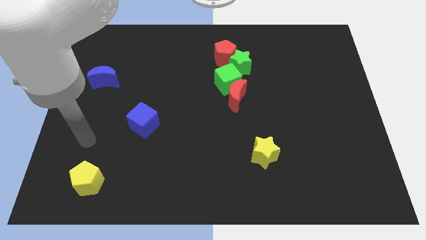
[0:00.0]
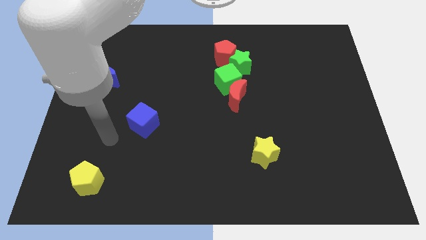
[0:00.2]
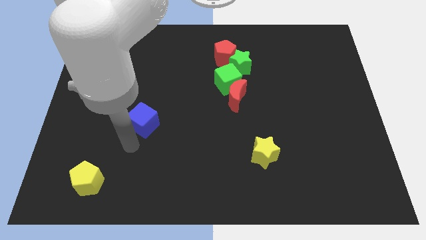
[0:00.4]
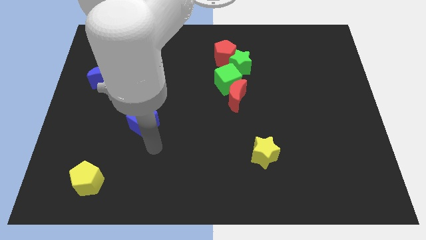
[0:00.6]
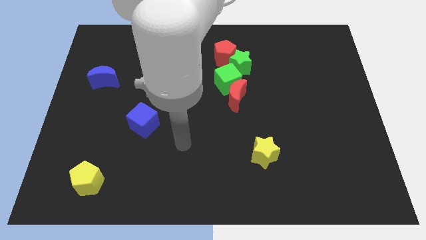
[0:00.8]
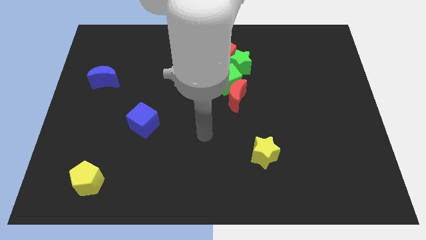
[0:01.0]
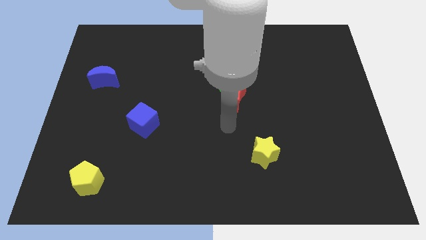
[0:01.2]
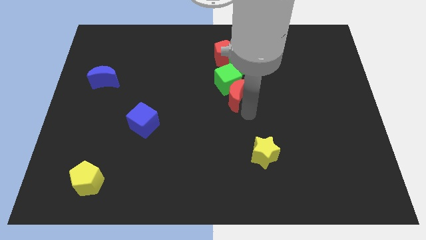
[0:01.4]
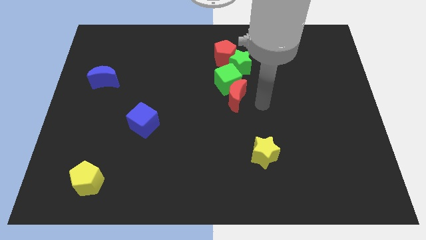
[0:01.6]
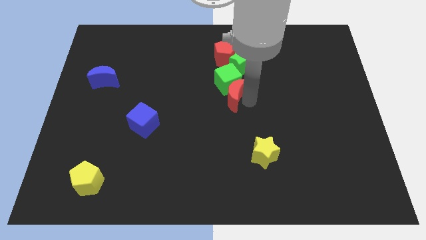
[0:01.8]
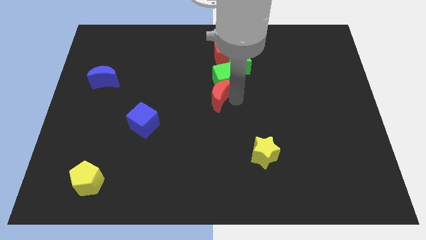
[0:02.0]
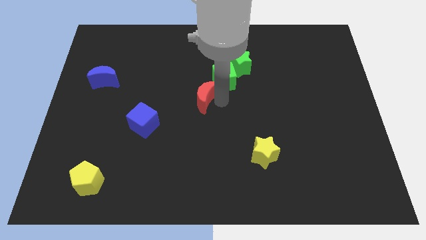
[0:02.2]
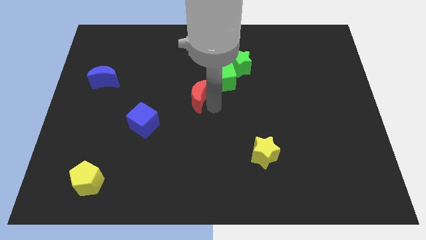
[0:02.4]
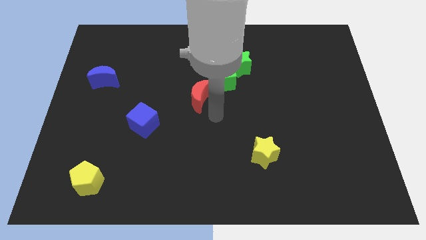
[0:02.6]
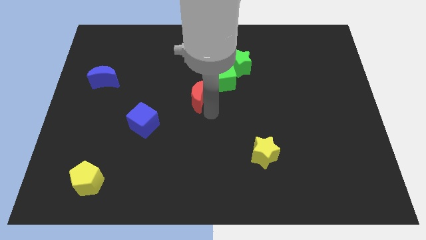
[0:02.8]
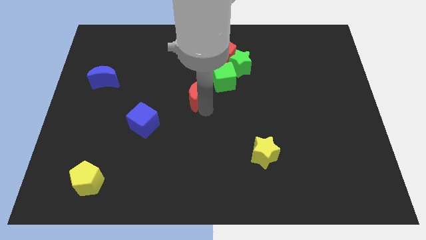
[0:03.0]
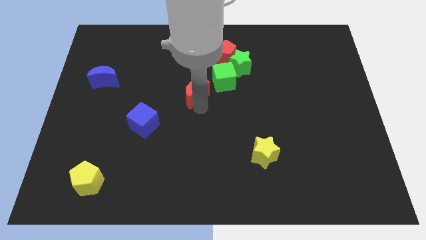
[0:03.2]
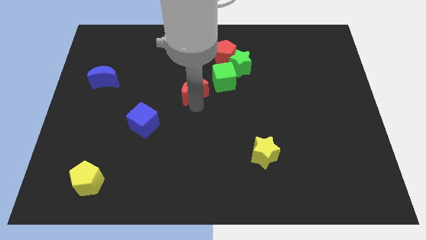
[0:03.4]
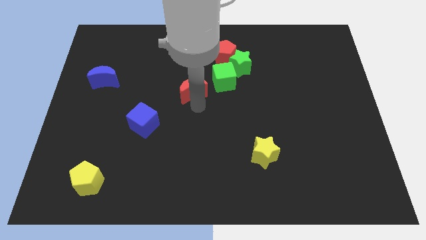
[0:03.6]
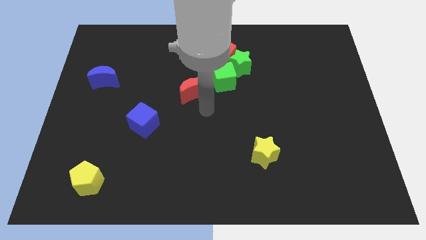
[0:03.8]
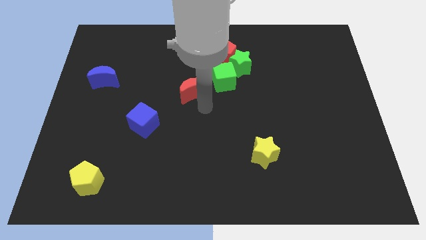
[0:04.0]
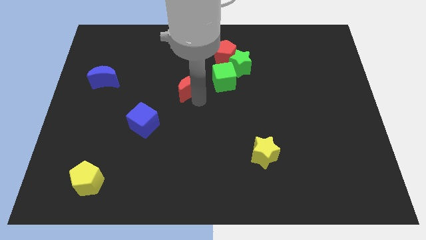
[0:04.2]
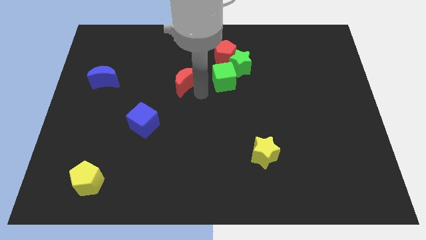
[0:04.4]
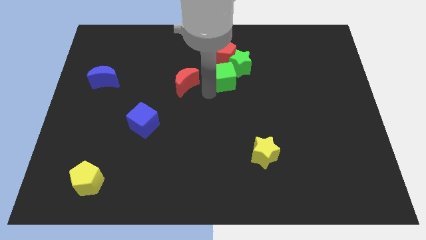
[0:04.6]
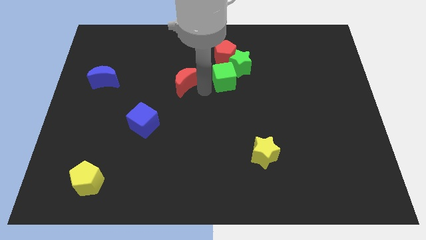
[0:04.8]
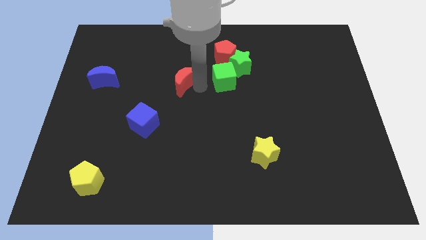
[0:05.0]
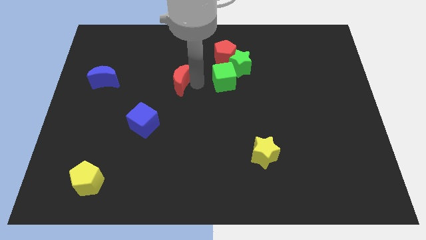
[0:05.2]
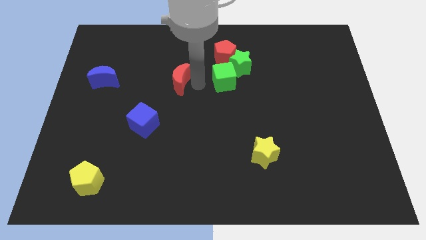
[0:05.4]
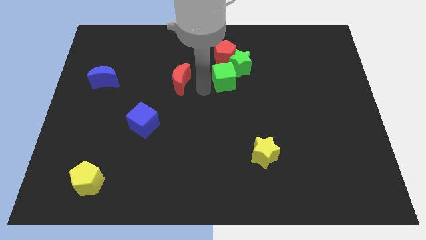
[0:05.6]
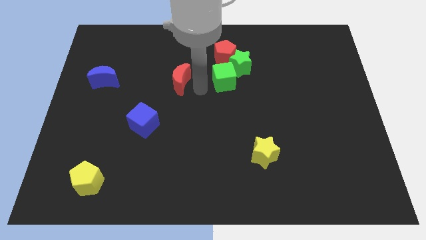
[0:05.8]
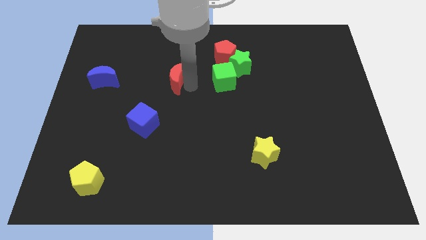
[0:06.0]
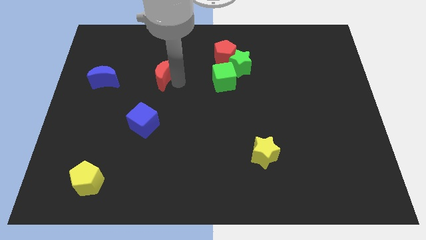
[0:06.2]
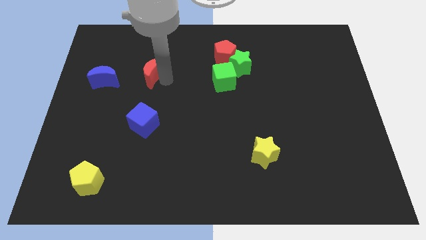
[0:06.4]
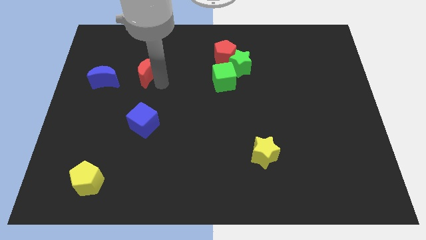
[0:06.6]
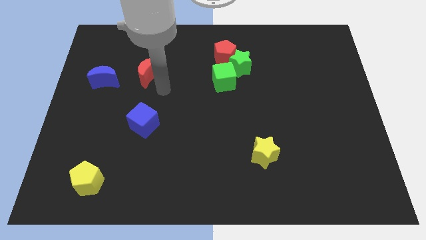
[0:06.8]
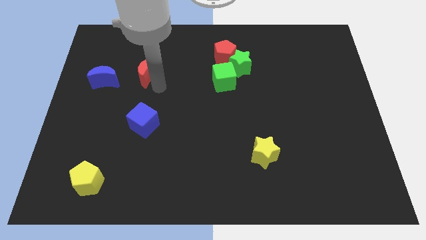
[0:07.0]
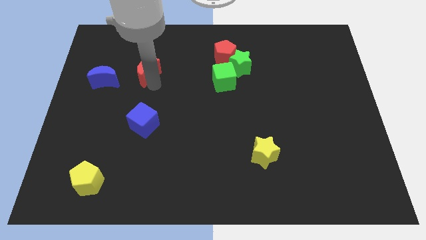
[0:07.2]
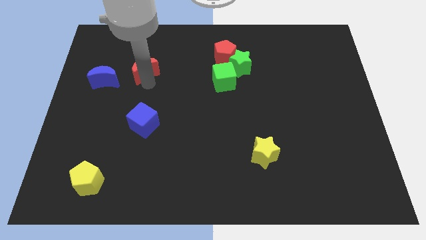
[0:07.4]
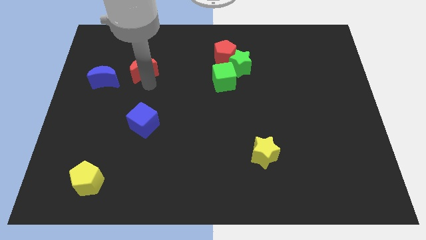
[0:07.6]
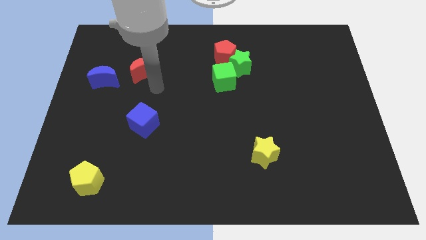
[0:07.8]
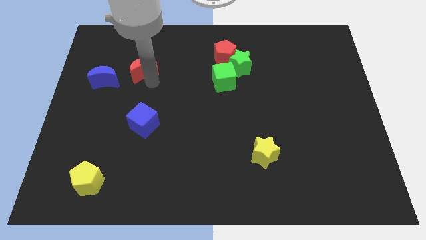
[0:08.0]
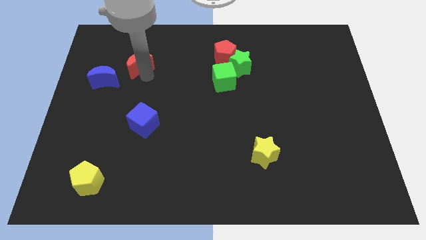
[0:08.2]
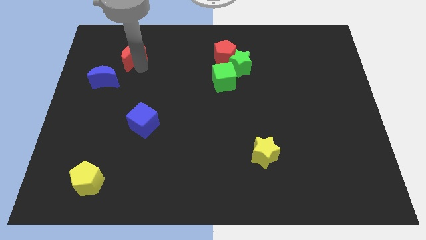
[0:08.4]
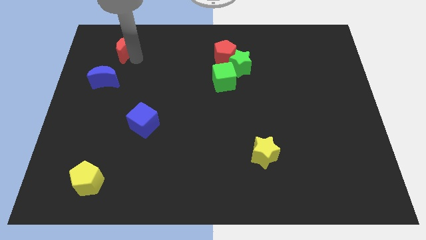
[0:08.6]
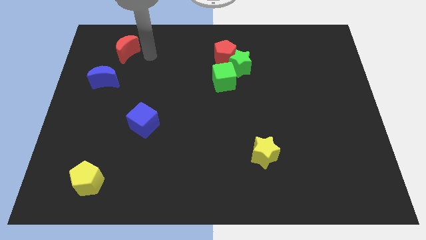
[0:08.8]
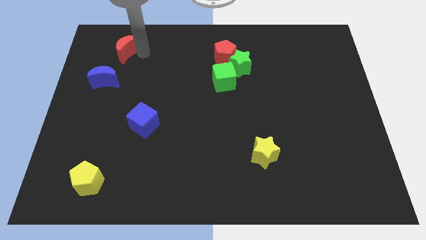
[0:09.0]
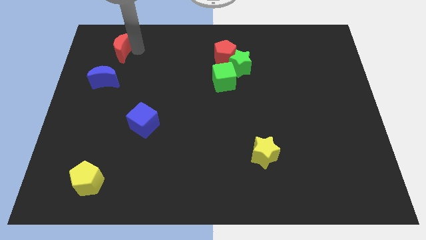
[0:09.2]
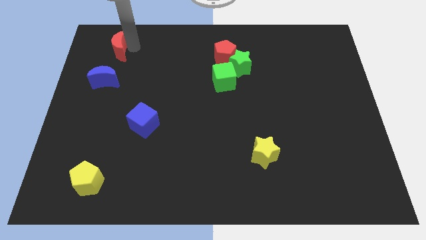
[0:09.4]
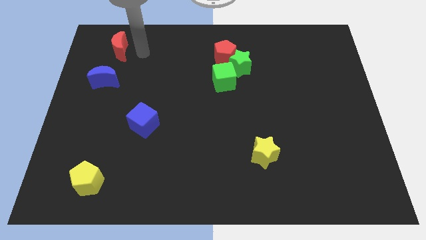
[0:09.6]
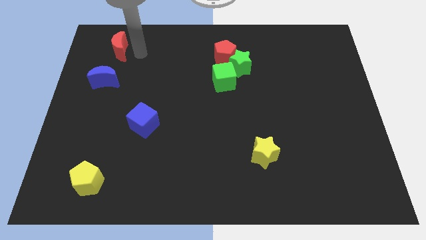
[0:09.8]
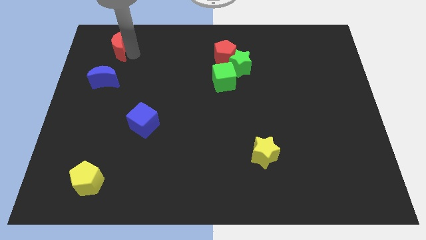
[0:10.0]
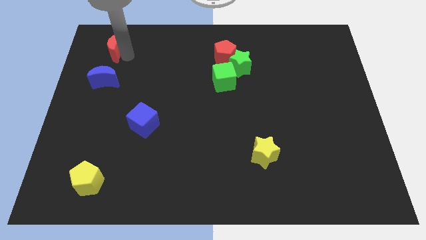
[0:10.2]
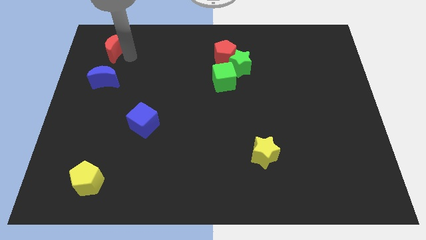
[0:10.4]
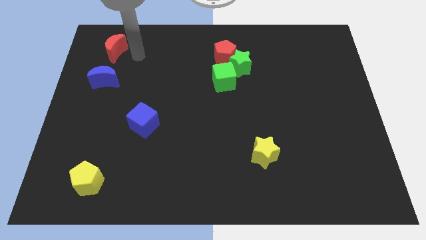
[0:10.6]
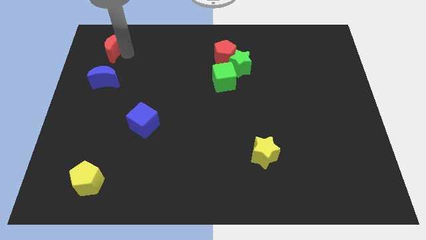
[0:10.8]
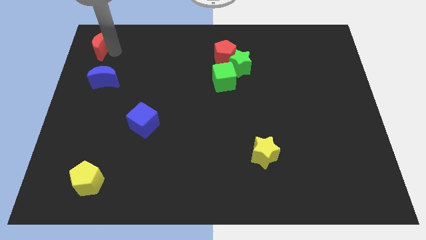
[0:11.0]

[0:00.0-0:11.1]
slide the red moon to the upper left corner
